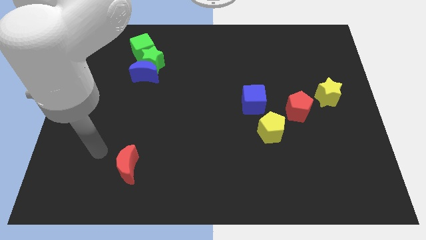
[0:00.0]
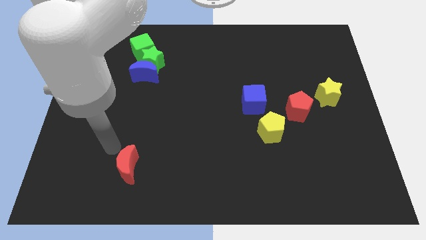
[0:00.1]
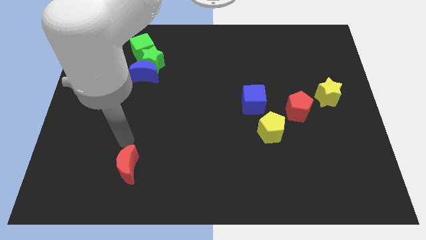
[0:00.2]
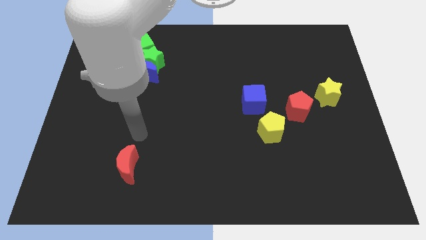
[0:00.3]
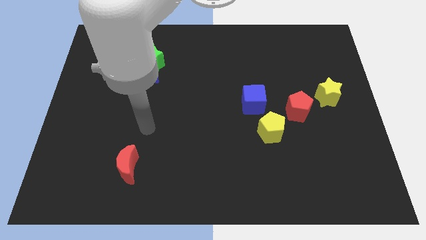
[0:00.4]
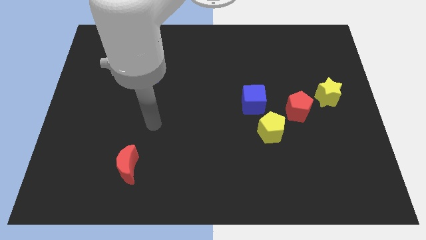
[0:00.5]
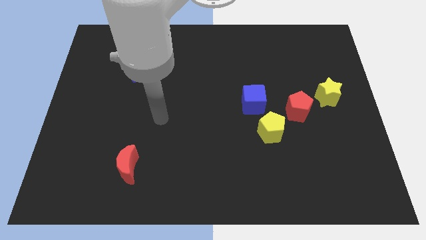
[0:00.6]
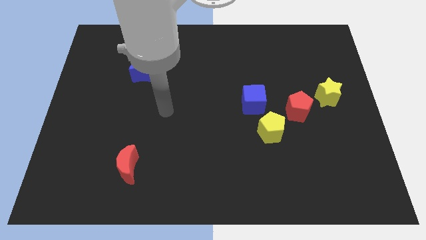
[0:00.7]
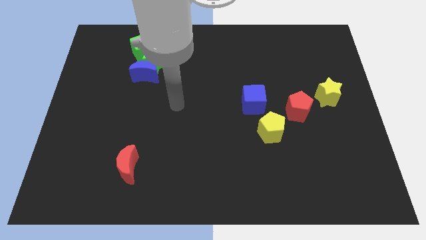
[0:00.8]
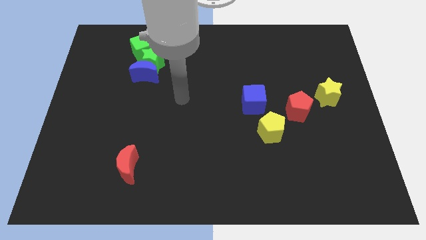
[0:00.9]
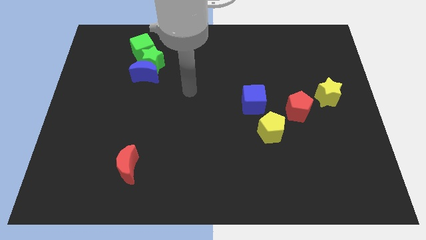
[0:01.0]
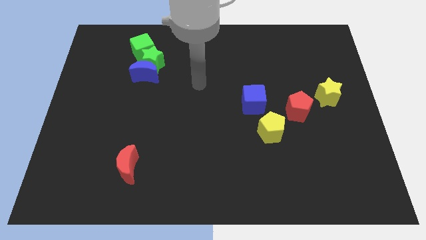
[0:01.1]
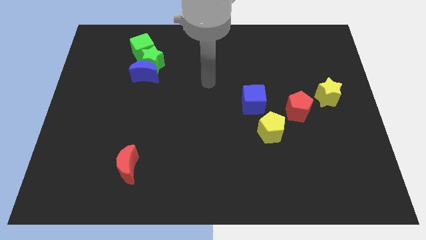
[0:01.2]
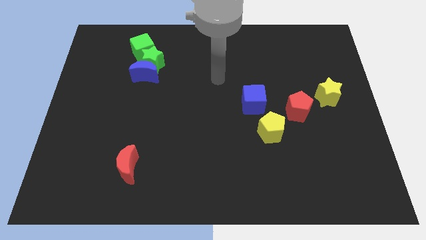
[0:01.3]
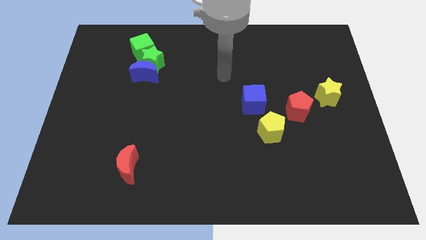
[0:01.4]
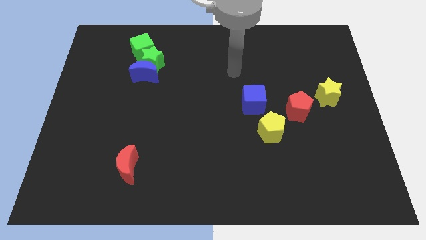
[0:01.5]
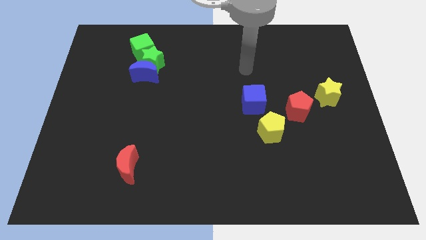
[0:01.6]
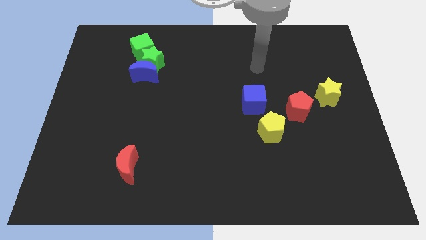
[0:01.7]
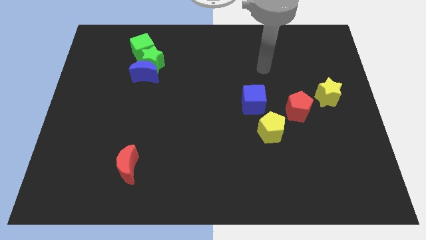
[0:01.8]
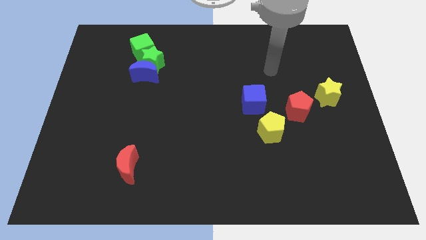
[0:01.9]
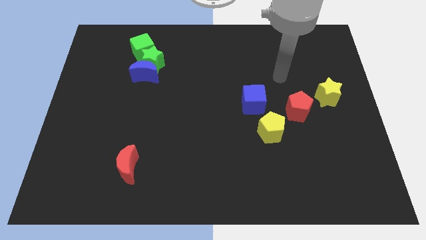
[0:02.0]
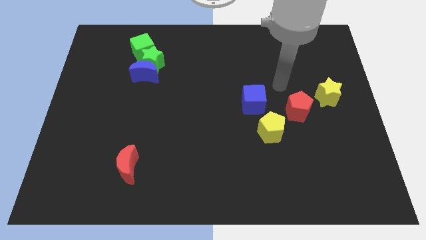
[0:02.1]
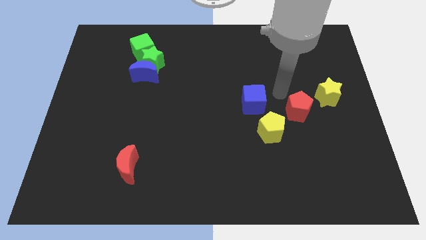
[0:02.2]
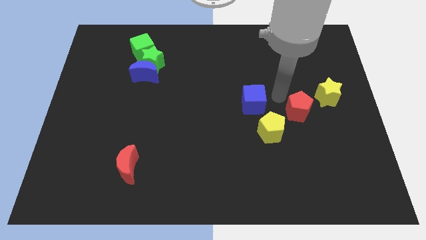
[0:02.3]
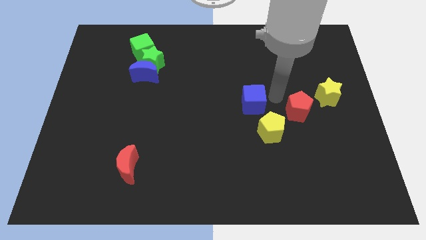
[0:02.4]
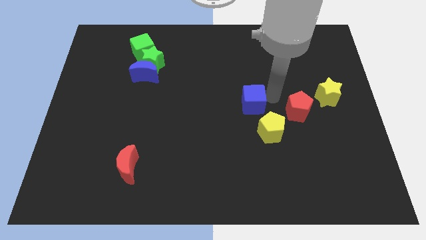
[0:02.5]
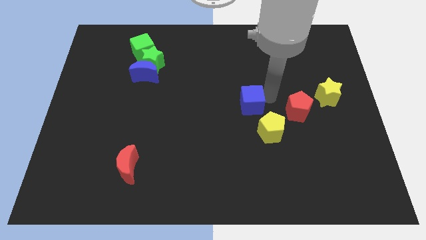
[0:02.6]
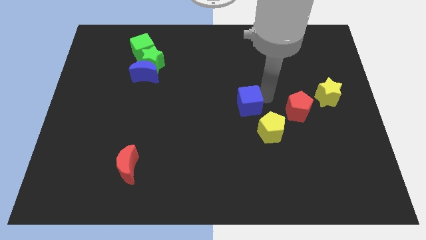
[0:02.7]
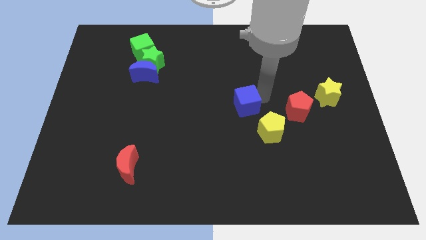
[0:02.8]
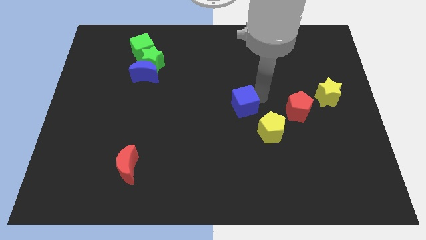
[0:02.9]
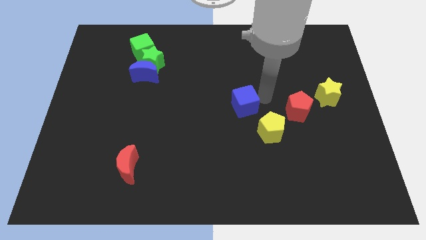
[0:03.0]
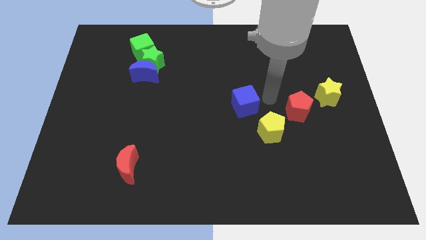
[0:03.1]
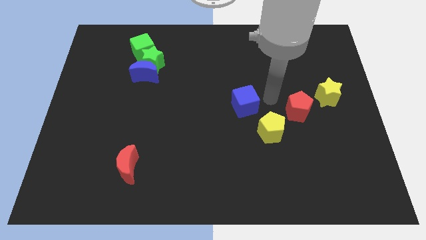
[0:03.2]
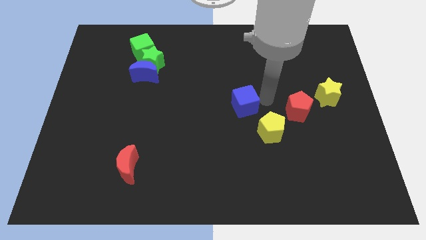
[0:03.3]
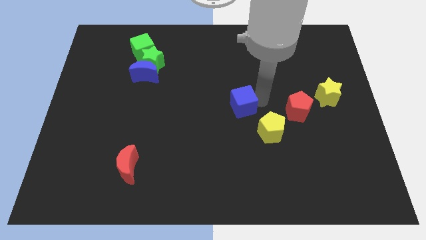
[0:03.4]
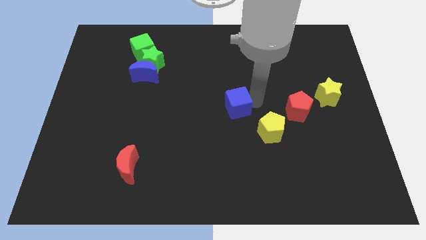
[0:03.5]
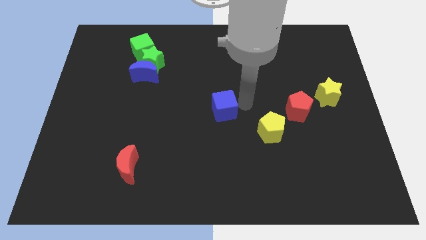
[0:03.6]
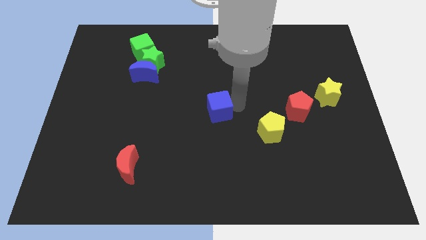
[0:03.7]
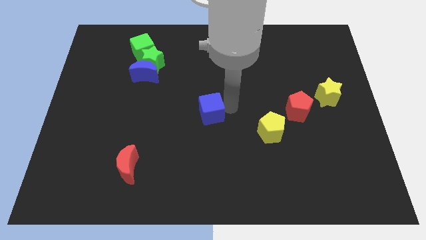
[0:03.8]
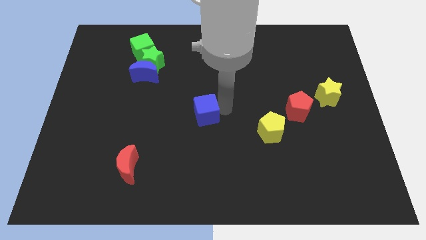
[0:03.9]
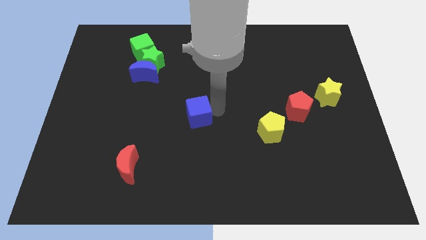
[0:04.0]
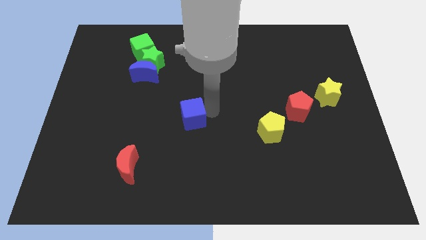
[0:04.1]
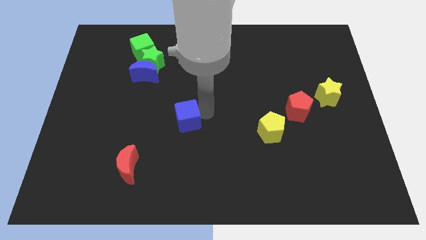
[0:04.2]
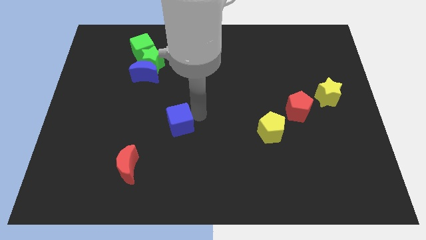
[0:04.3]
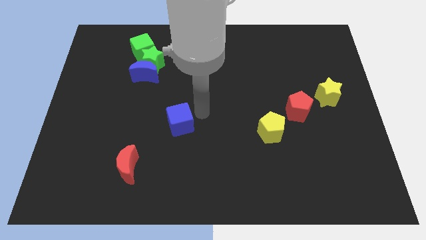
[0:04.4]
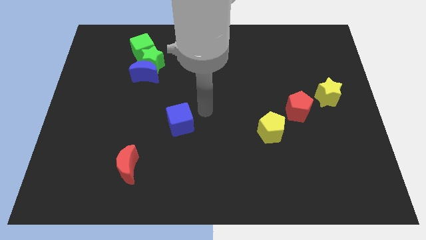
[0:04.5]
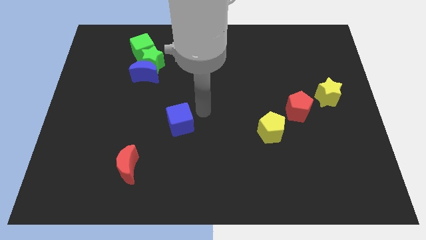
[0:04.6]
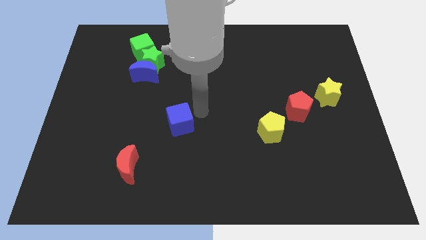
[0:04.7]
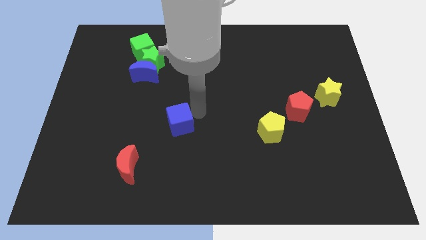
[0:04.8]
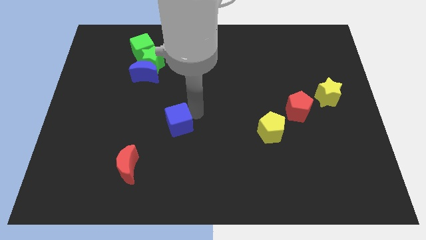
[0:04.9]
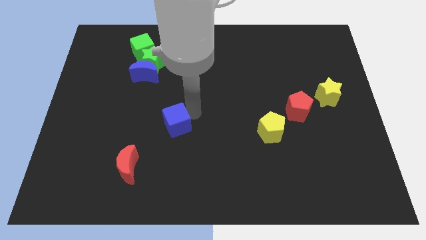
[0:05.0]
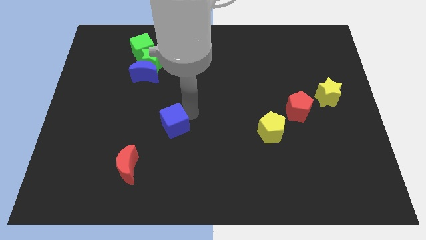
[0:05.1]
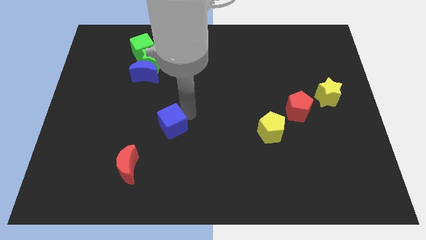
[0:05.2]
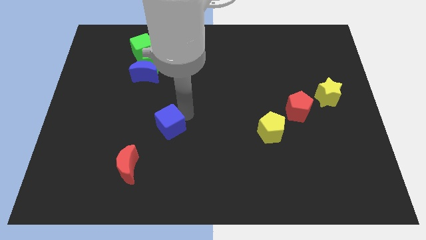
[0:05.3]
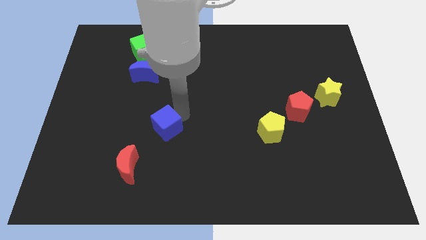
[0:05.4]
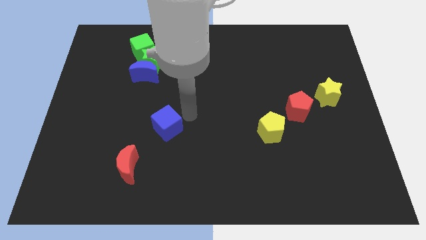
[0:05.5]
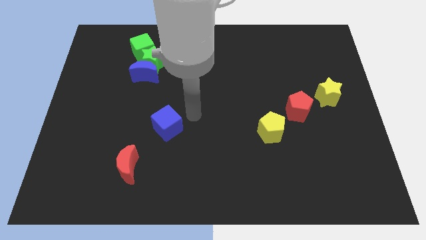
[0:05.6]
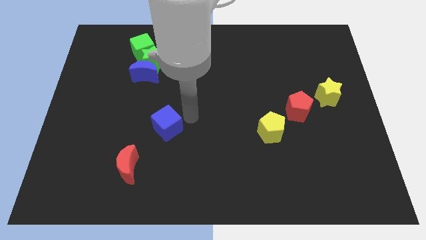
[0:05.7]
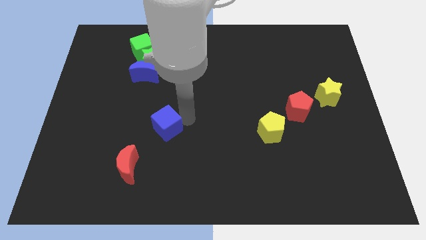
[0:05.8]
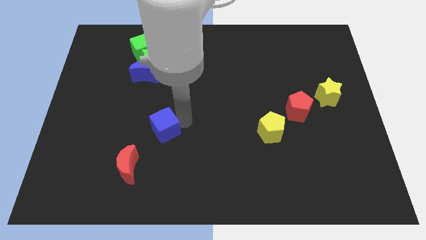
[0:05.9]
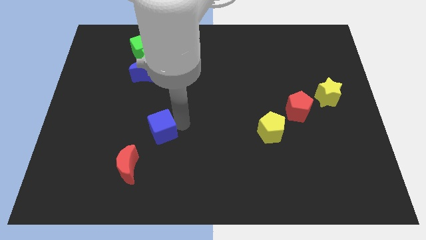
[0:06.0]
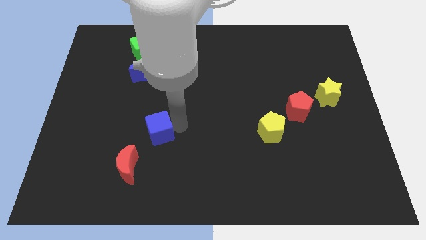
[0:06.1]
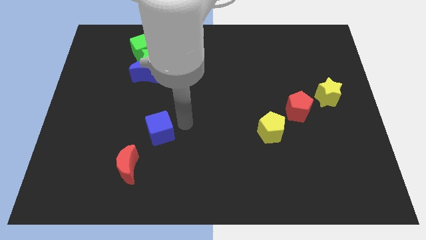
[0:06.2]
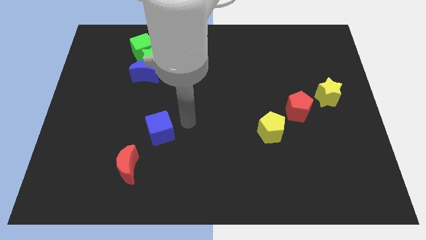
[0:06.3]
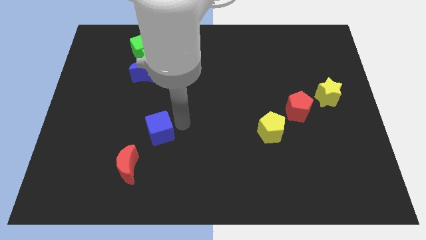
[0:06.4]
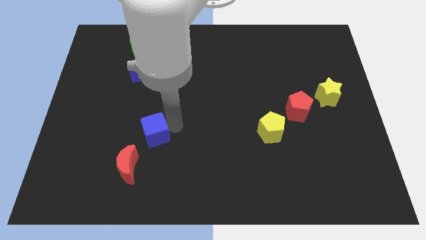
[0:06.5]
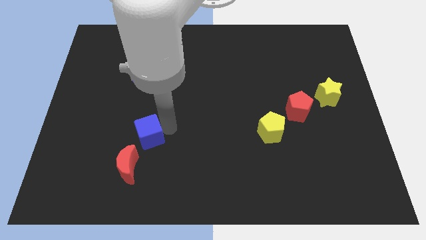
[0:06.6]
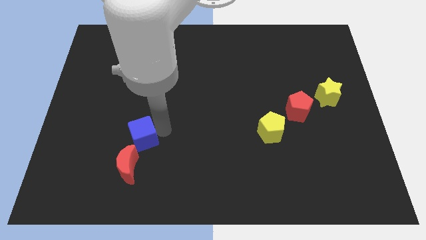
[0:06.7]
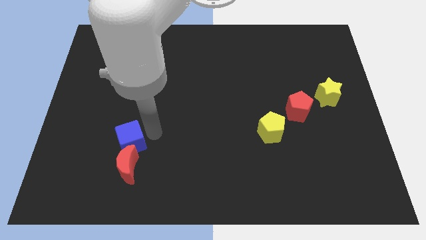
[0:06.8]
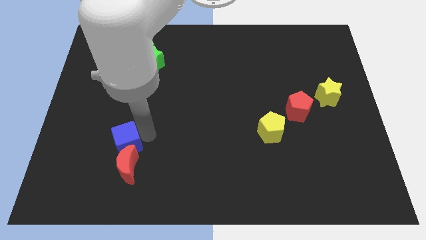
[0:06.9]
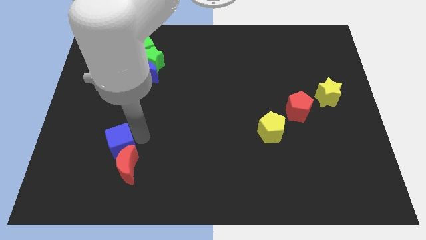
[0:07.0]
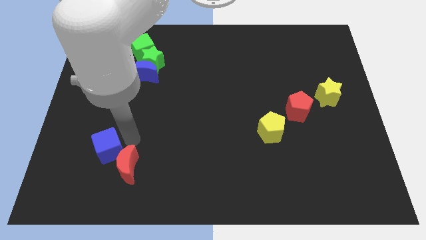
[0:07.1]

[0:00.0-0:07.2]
push the blue cube to the left of the red moon
